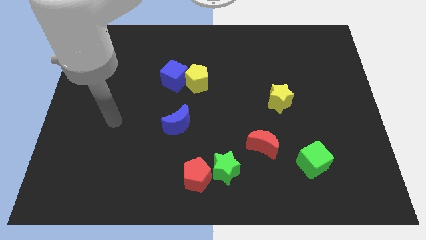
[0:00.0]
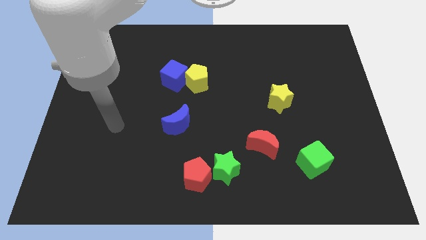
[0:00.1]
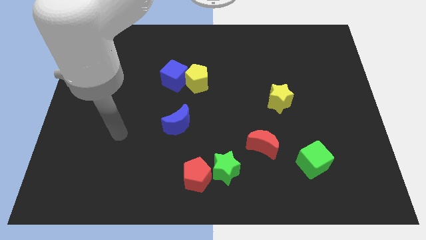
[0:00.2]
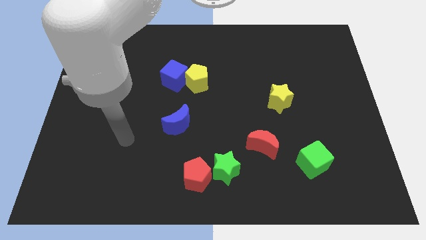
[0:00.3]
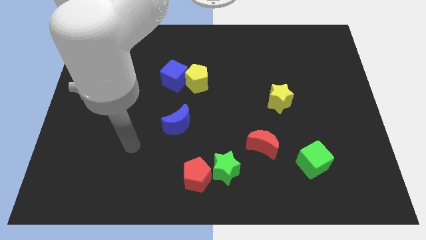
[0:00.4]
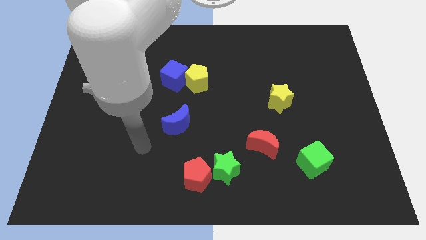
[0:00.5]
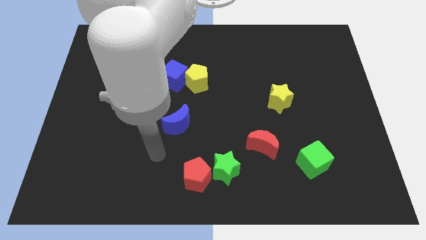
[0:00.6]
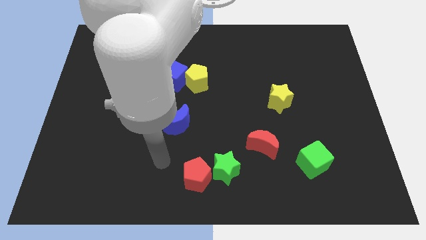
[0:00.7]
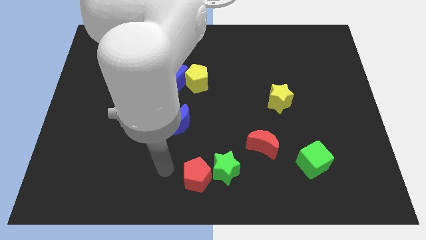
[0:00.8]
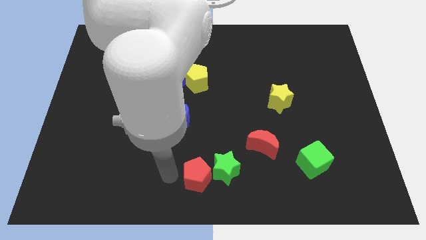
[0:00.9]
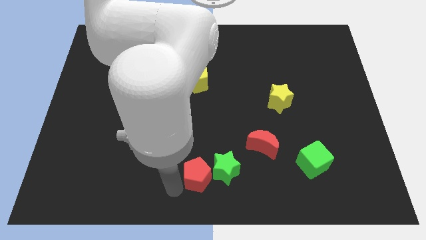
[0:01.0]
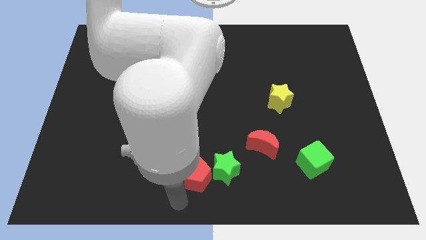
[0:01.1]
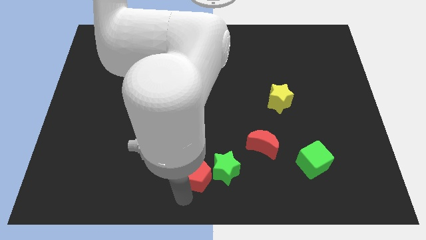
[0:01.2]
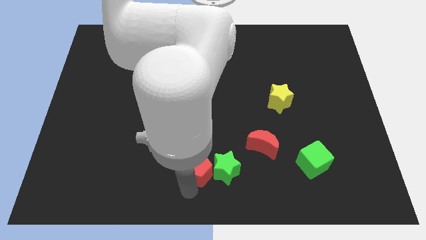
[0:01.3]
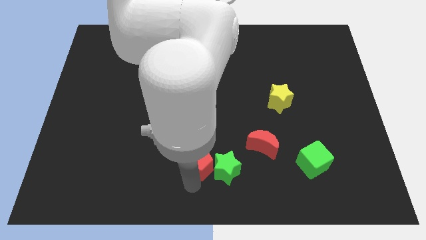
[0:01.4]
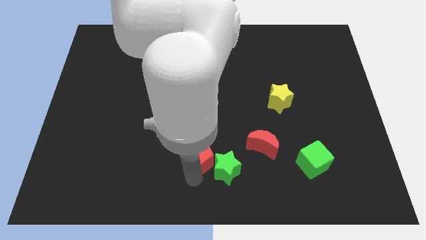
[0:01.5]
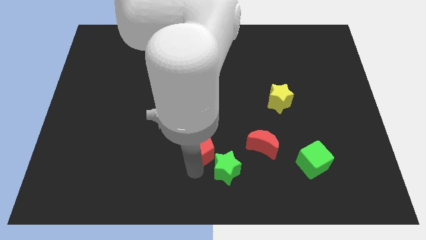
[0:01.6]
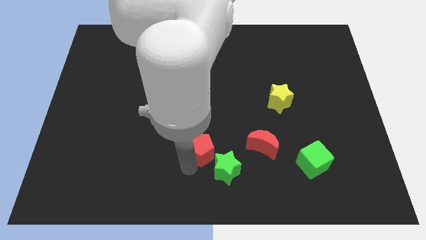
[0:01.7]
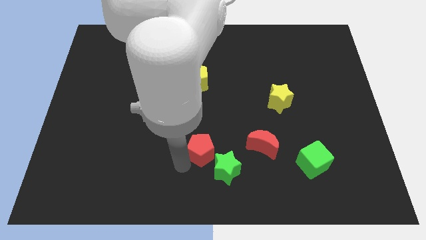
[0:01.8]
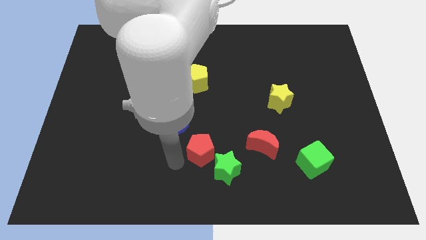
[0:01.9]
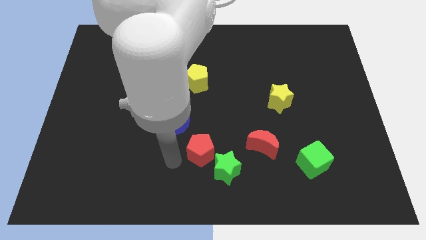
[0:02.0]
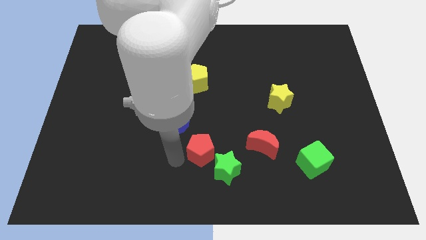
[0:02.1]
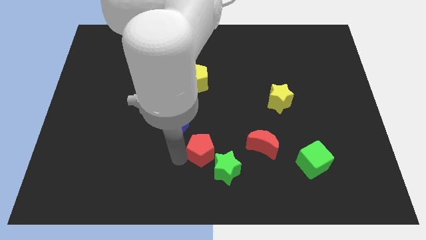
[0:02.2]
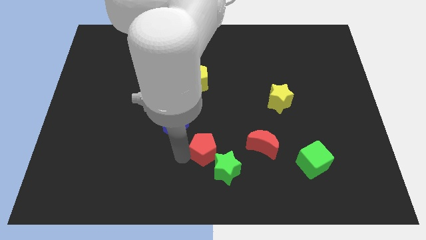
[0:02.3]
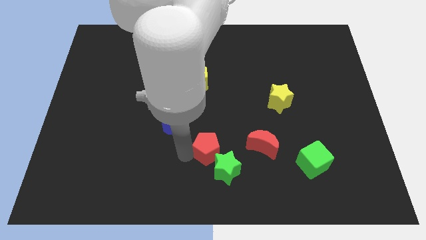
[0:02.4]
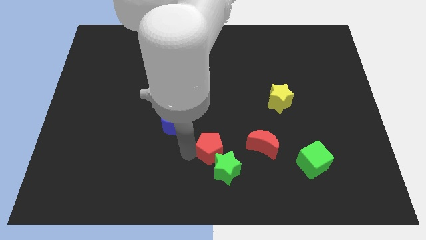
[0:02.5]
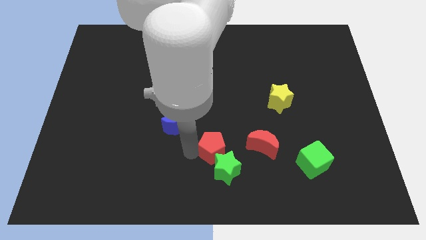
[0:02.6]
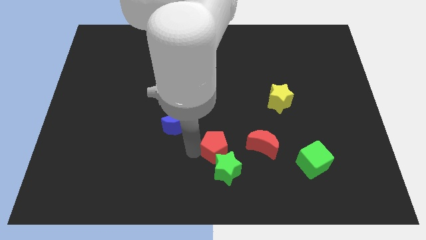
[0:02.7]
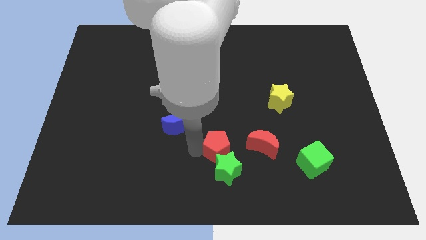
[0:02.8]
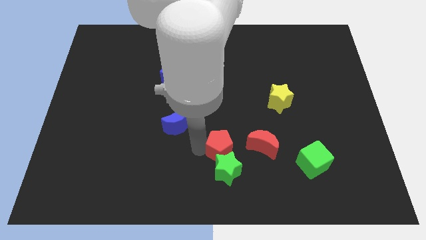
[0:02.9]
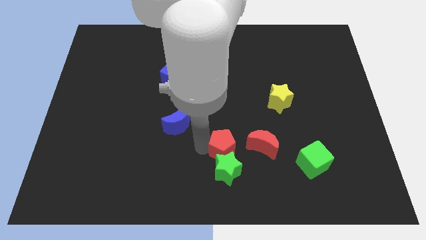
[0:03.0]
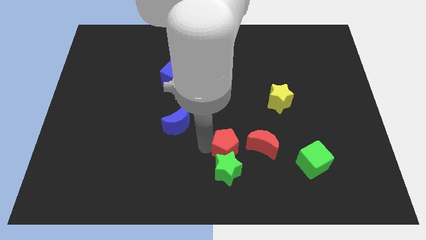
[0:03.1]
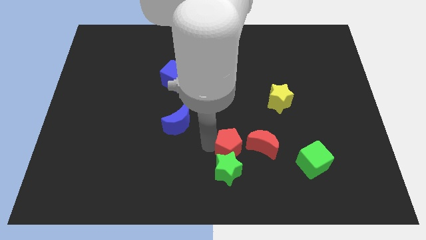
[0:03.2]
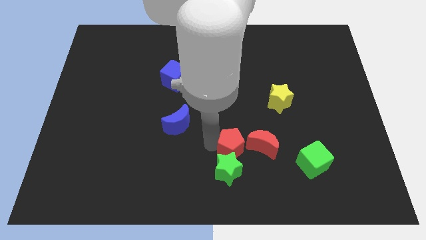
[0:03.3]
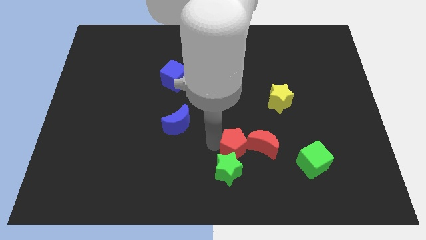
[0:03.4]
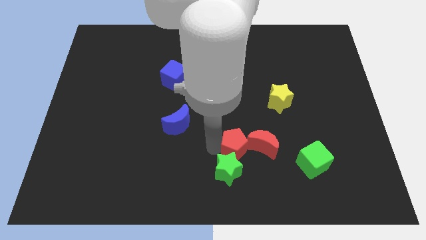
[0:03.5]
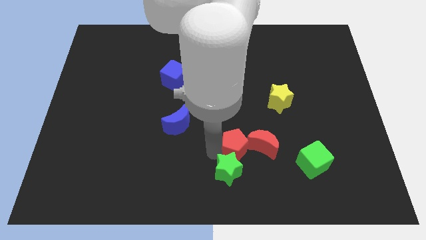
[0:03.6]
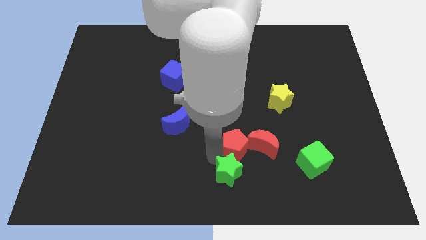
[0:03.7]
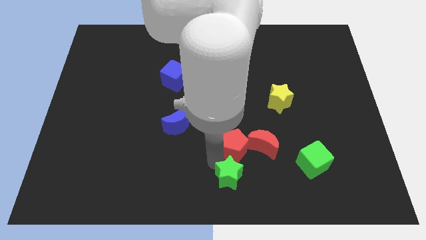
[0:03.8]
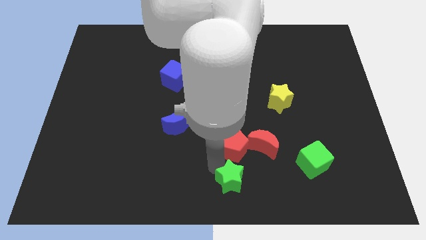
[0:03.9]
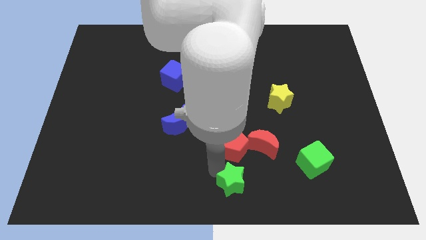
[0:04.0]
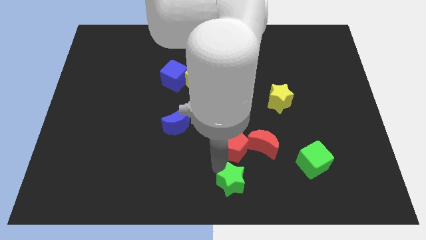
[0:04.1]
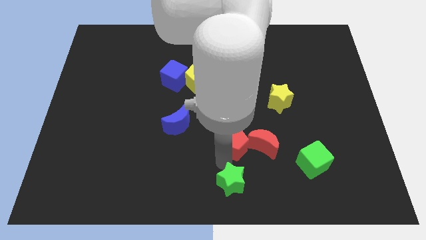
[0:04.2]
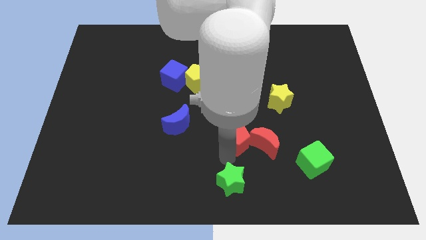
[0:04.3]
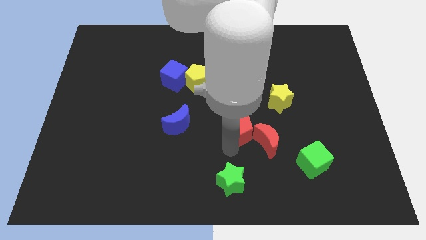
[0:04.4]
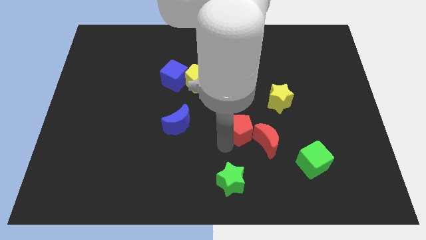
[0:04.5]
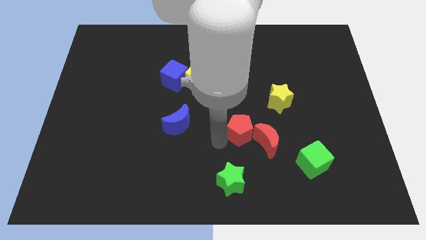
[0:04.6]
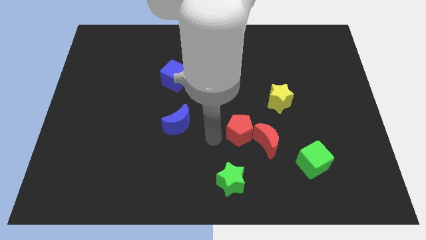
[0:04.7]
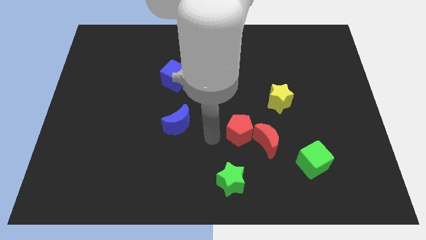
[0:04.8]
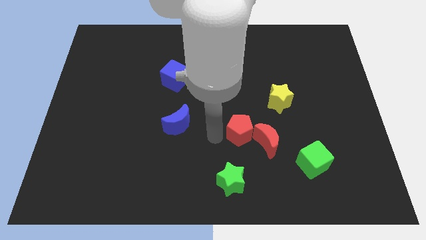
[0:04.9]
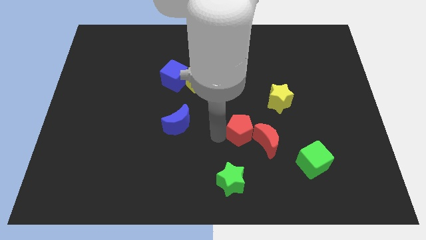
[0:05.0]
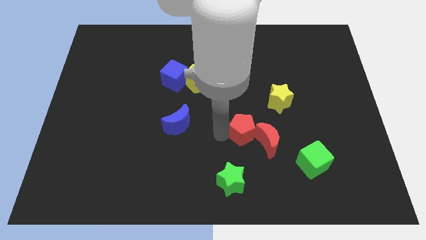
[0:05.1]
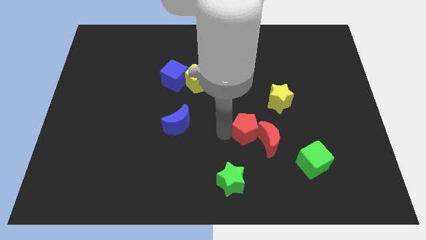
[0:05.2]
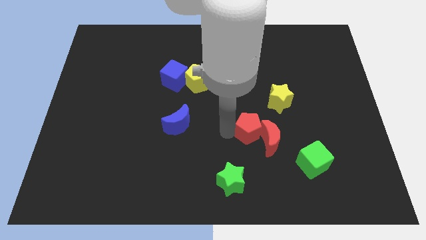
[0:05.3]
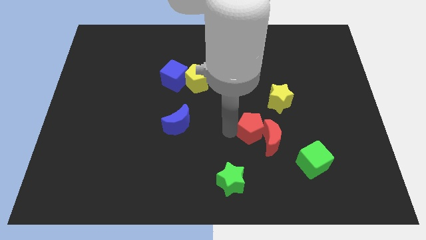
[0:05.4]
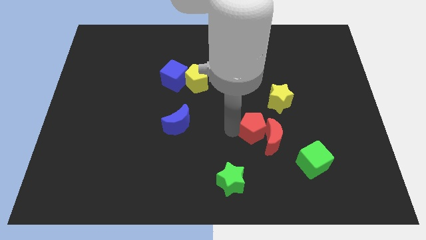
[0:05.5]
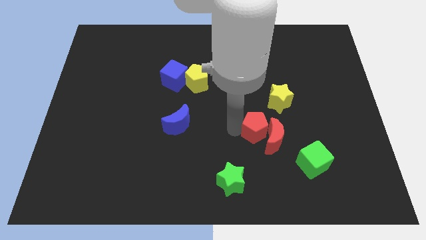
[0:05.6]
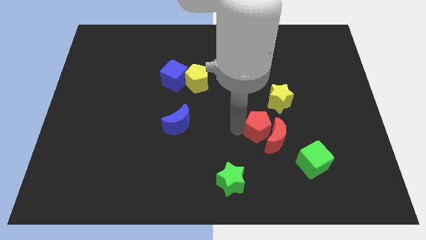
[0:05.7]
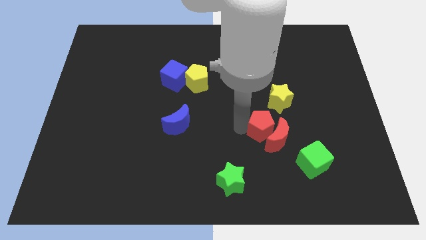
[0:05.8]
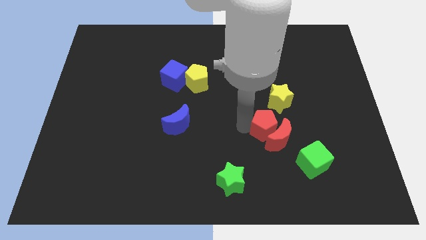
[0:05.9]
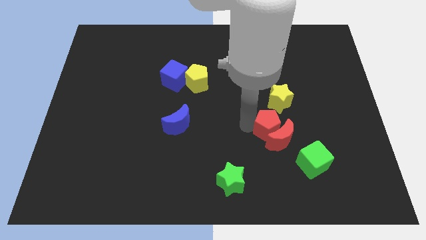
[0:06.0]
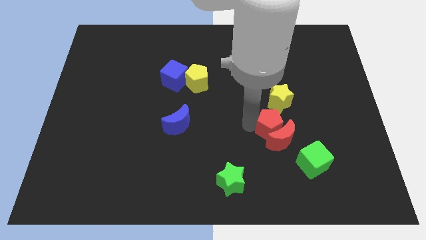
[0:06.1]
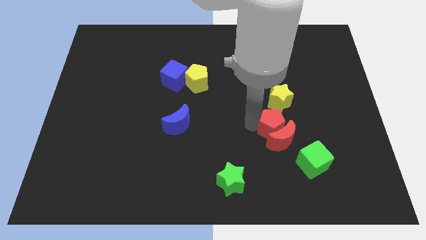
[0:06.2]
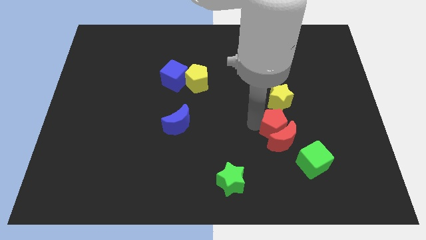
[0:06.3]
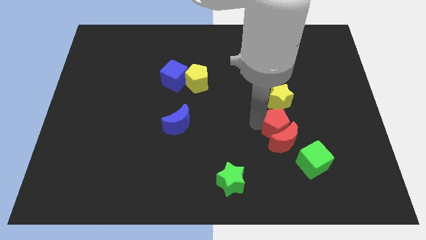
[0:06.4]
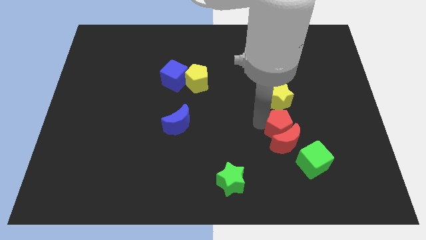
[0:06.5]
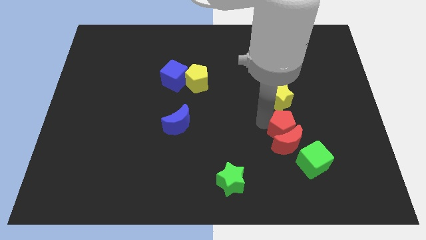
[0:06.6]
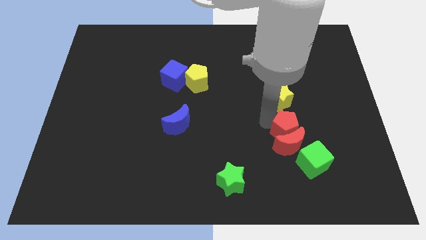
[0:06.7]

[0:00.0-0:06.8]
push the red pentagon to the top of the green cube

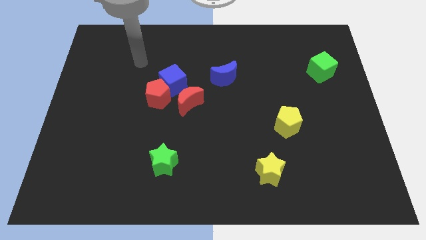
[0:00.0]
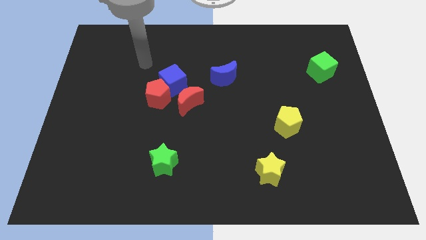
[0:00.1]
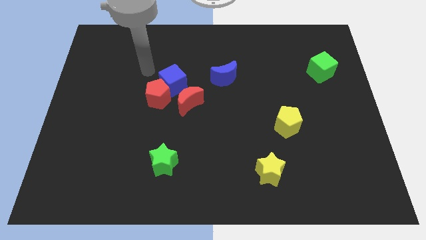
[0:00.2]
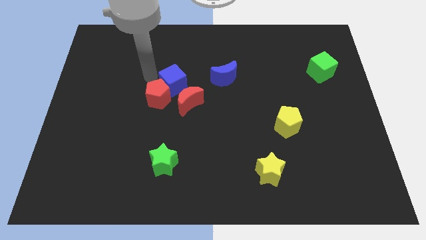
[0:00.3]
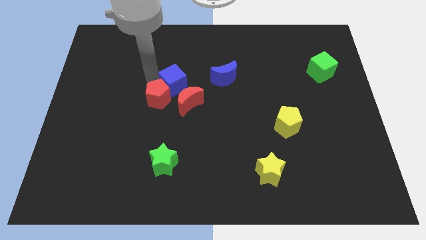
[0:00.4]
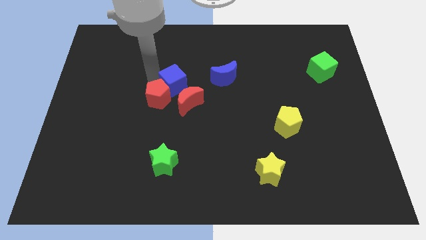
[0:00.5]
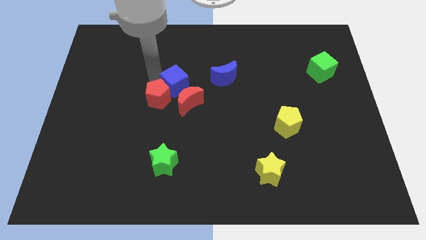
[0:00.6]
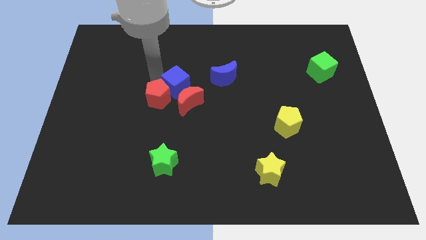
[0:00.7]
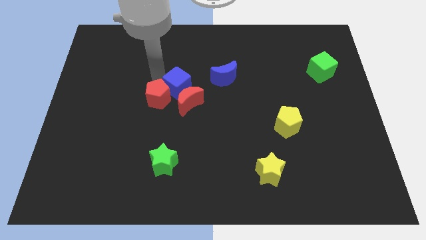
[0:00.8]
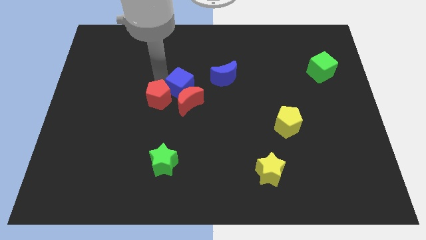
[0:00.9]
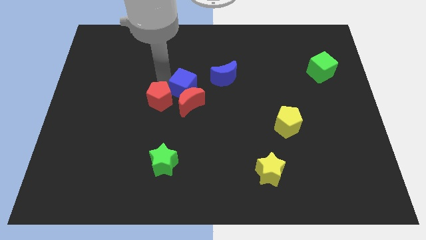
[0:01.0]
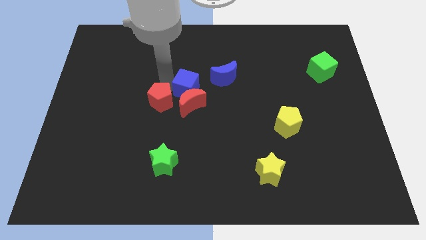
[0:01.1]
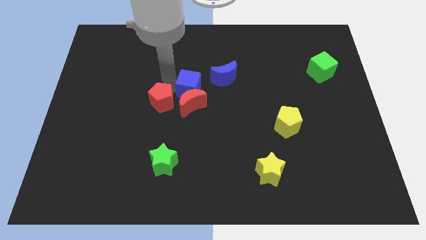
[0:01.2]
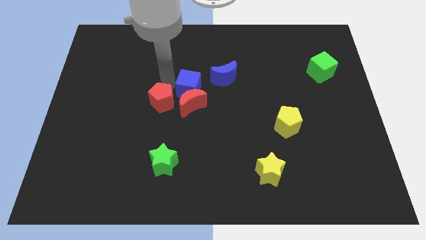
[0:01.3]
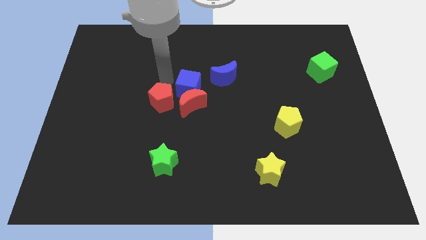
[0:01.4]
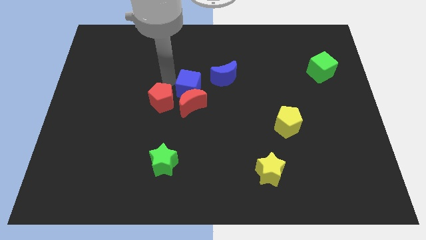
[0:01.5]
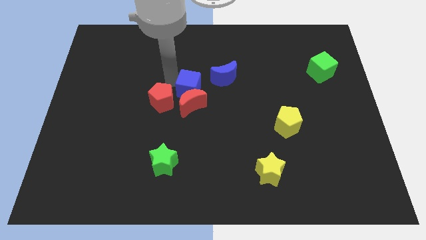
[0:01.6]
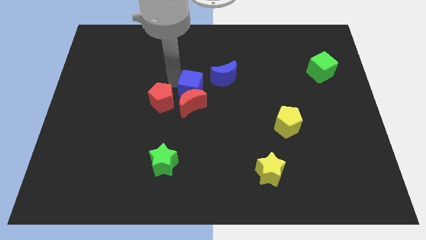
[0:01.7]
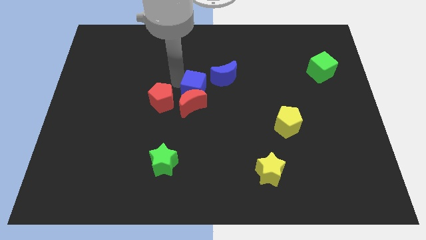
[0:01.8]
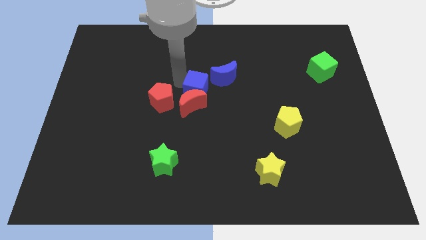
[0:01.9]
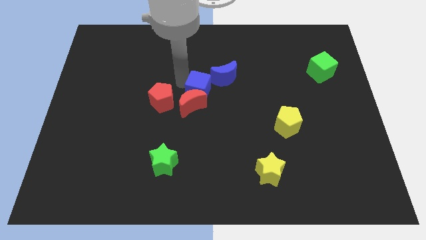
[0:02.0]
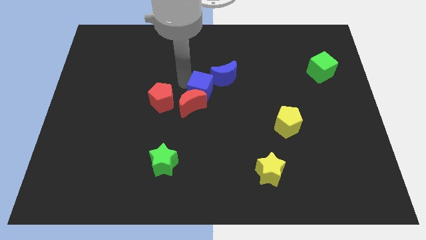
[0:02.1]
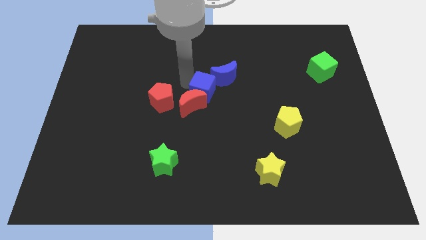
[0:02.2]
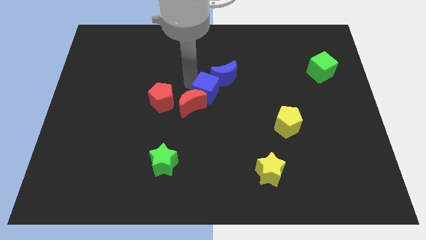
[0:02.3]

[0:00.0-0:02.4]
move the blue cube to the right side of the red moon
